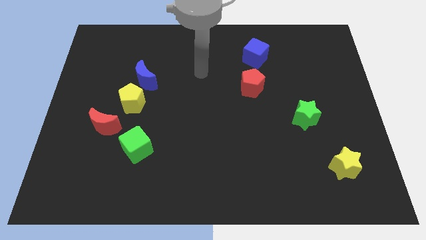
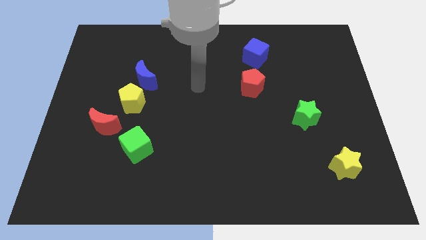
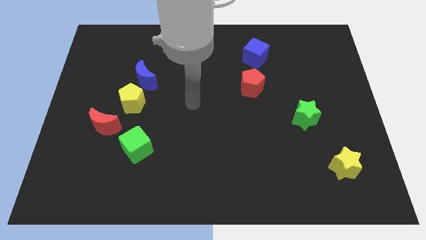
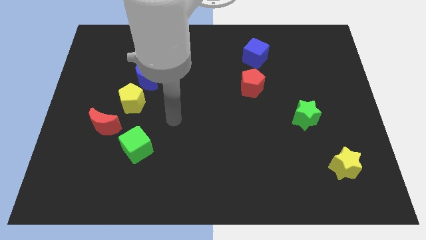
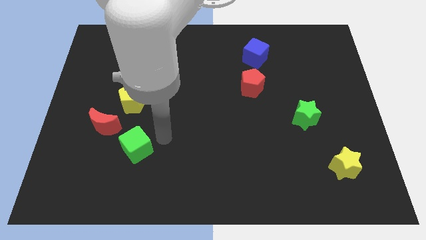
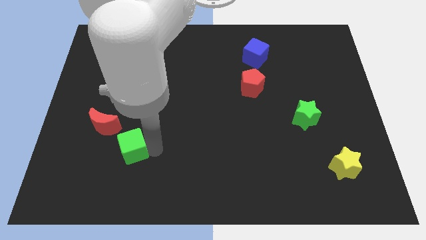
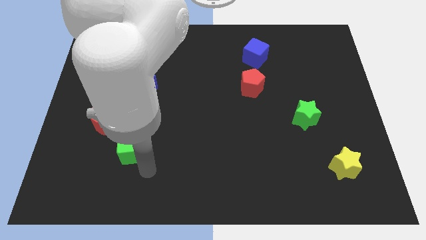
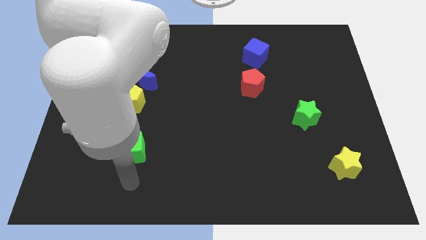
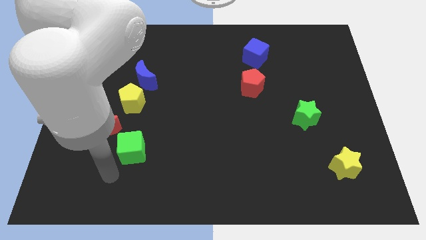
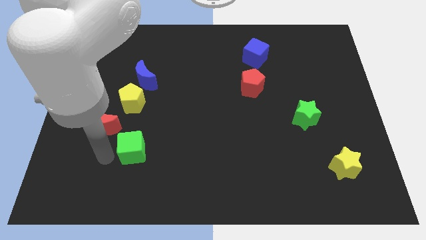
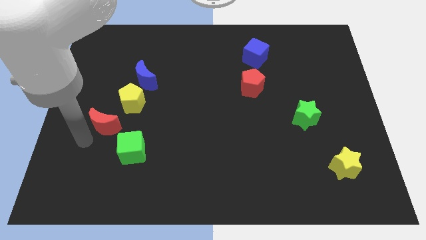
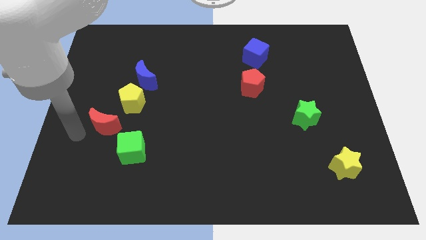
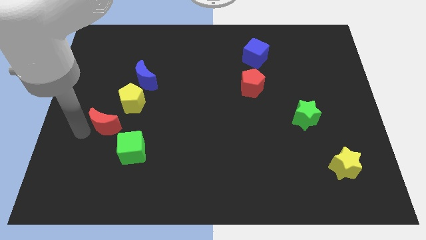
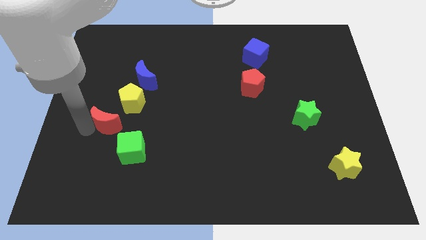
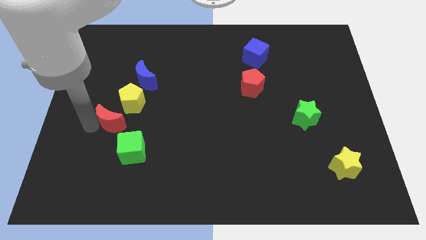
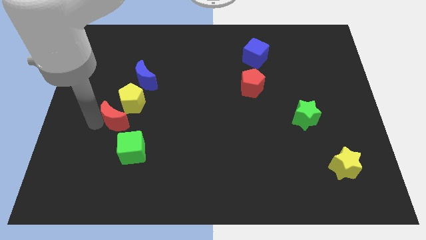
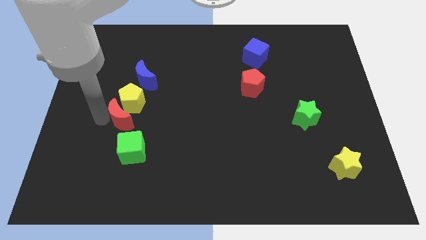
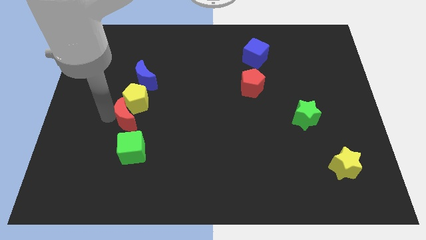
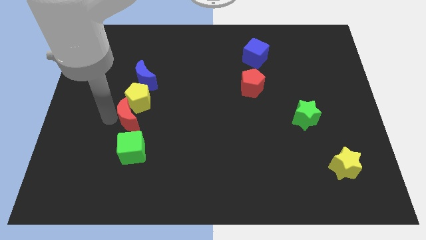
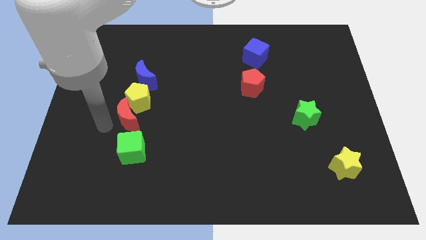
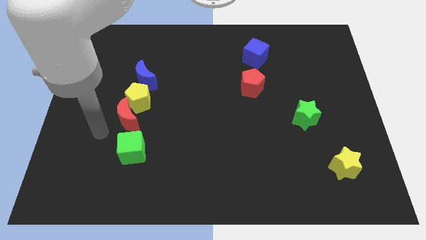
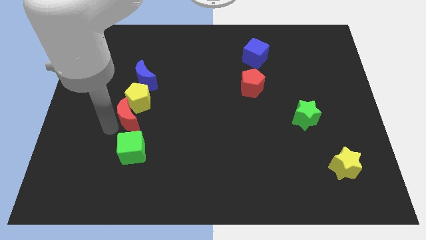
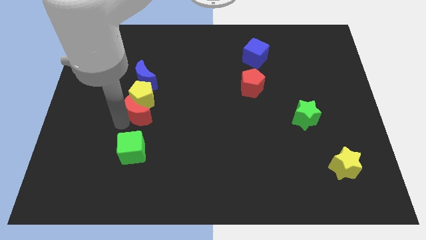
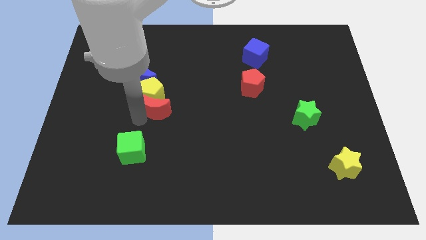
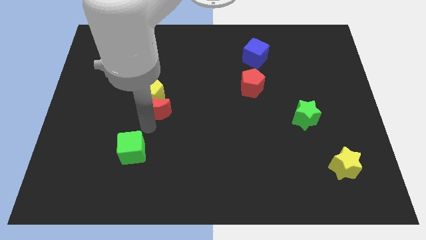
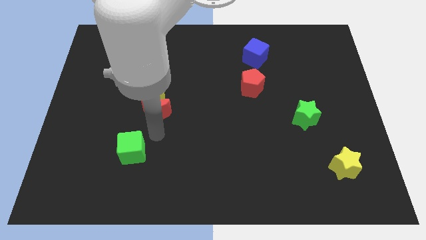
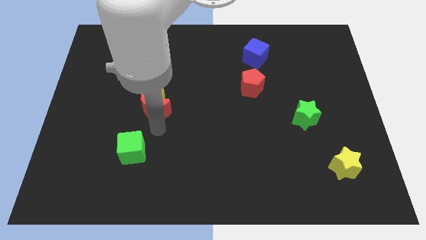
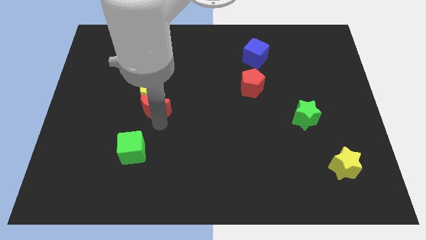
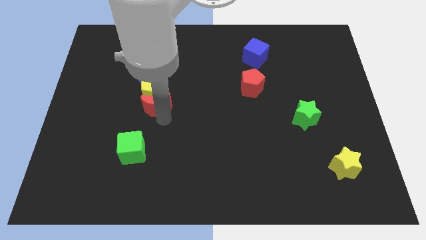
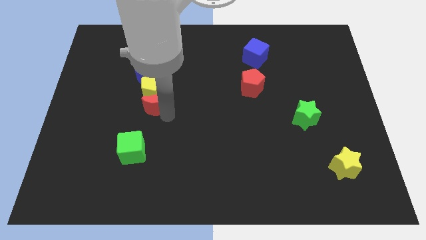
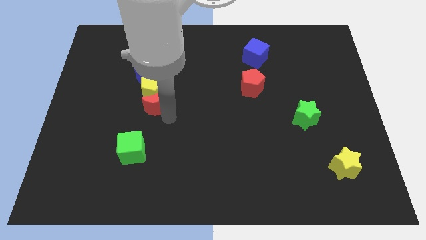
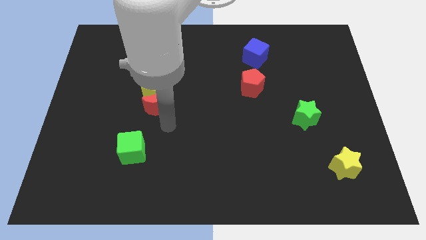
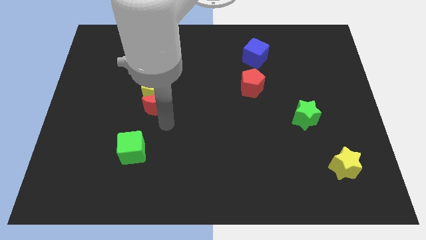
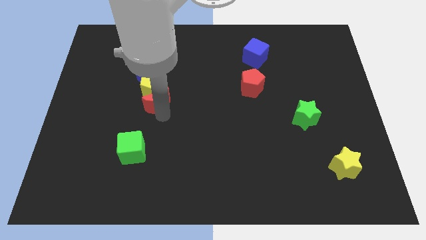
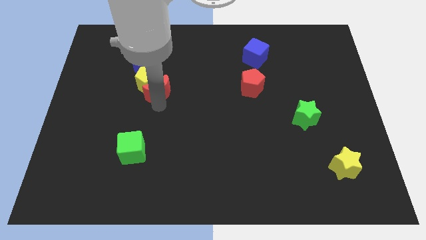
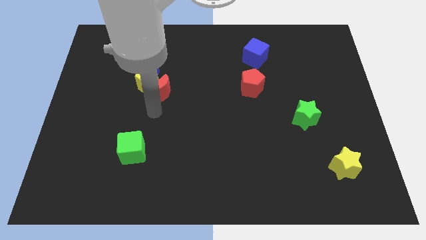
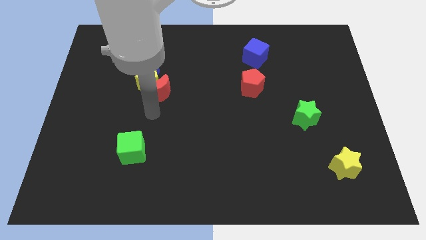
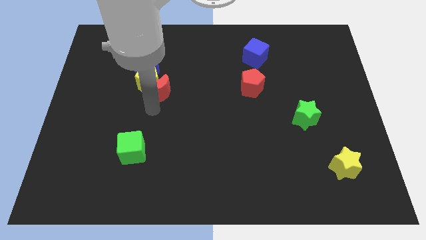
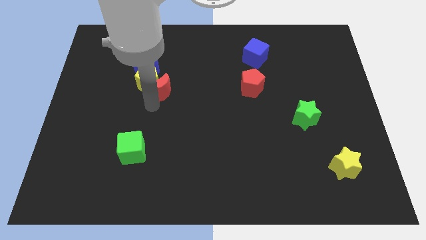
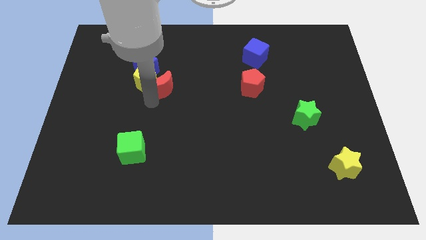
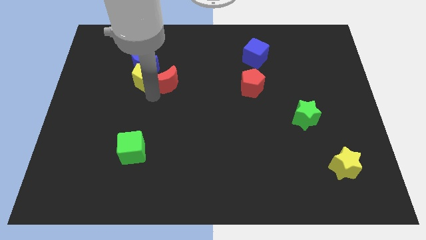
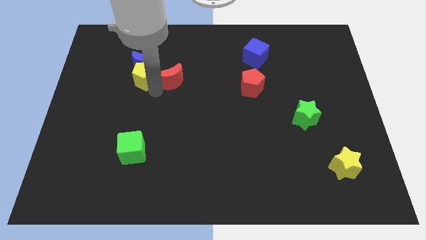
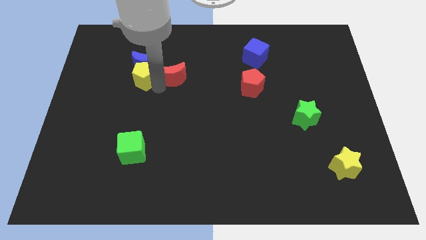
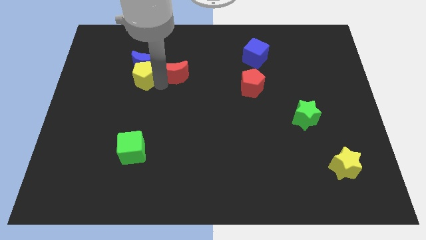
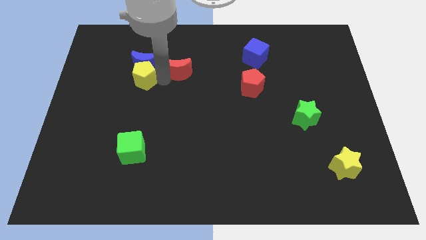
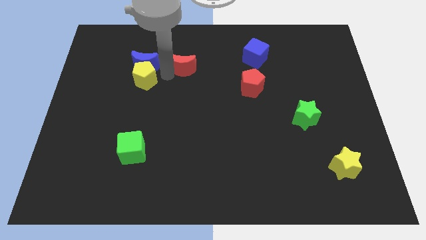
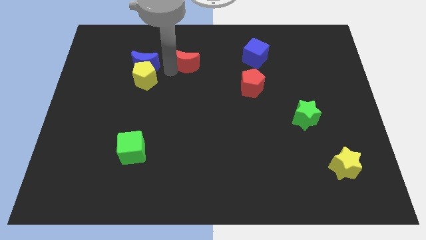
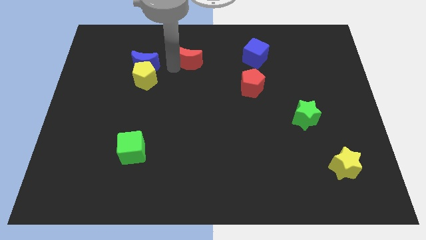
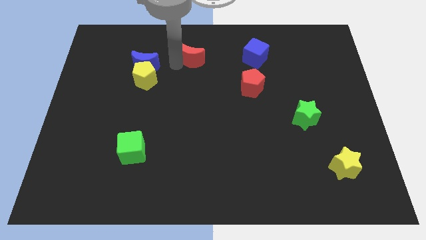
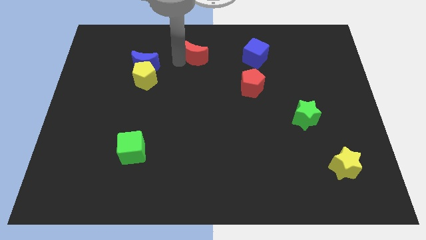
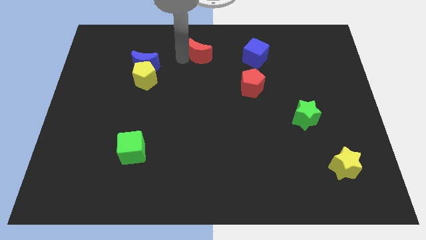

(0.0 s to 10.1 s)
move the red moon to the towards your base

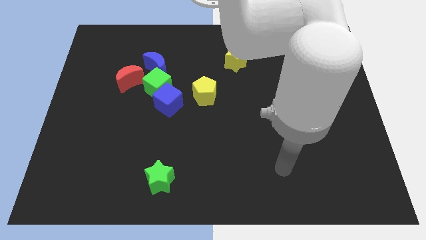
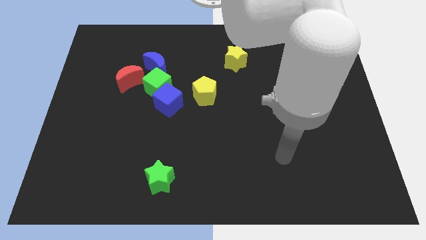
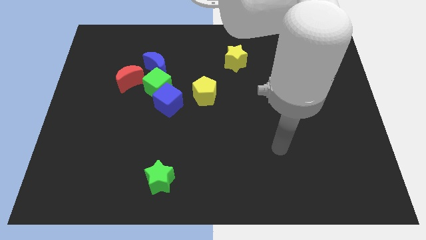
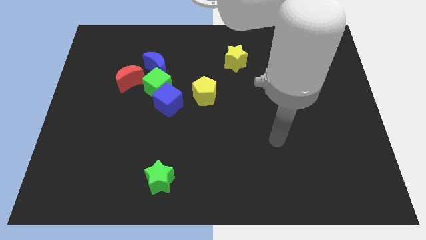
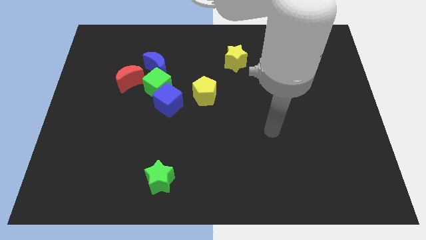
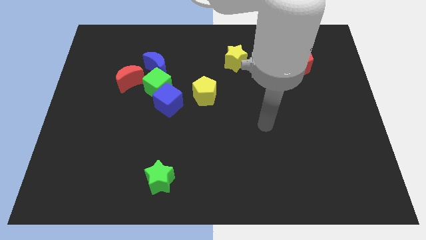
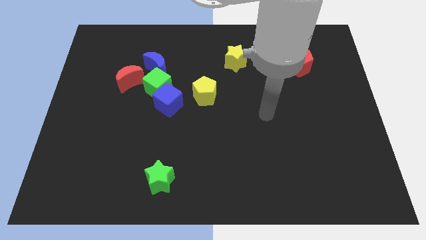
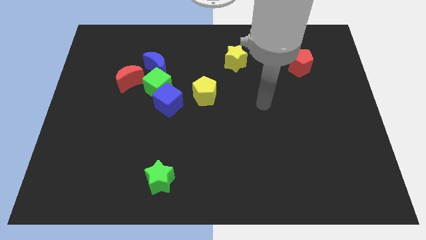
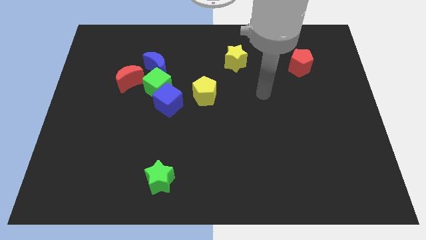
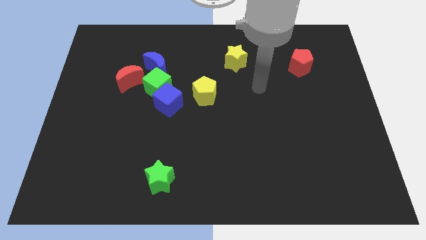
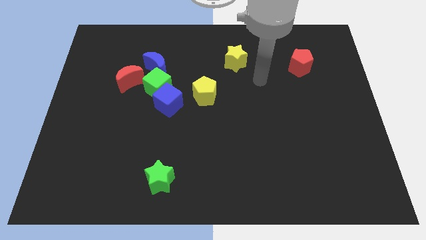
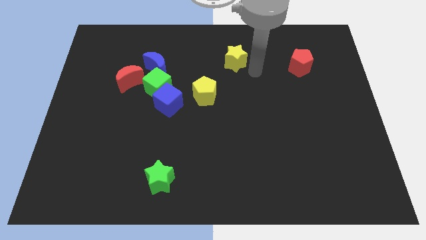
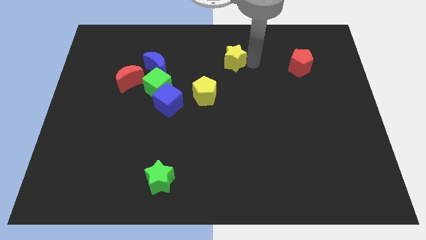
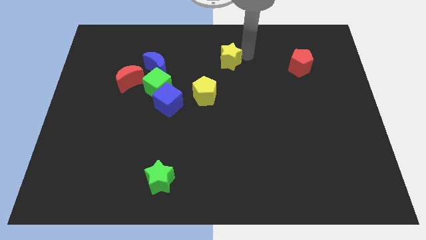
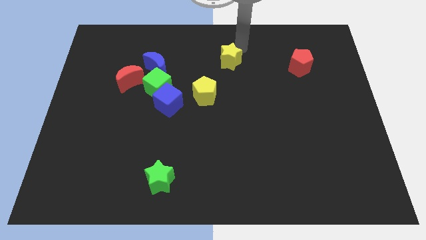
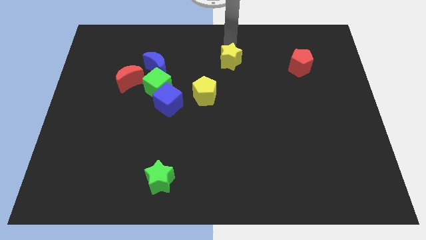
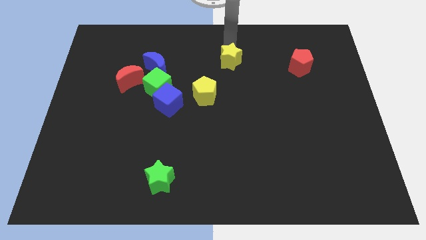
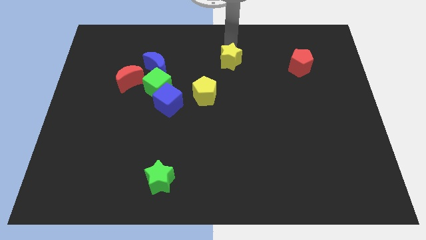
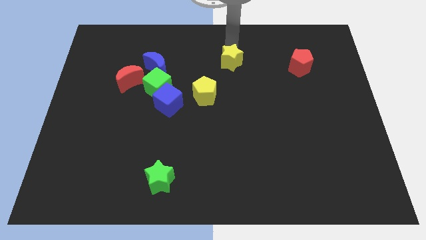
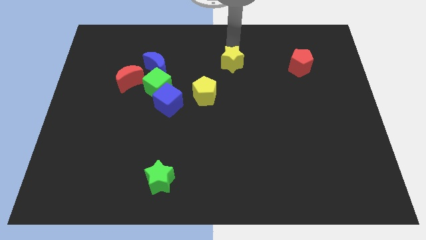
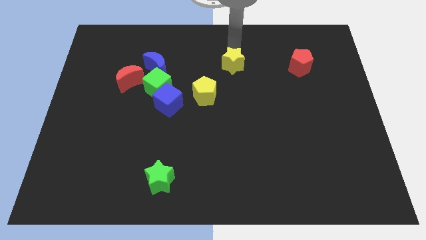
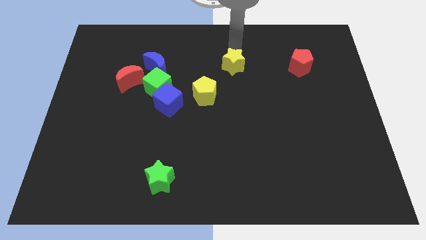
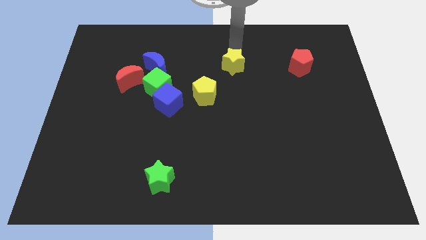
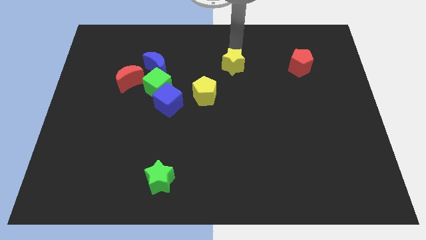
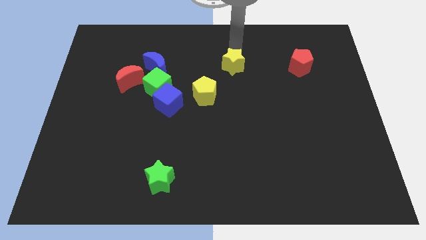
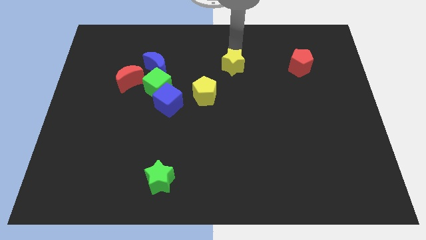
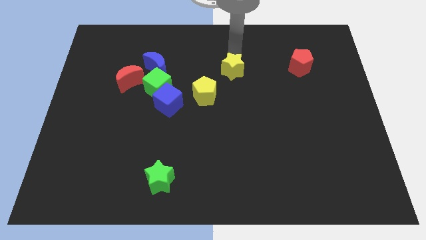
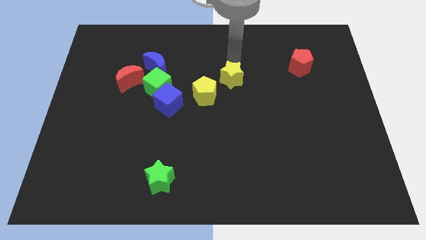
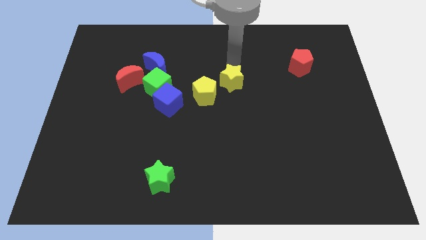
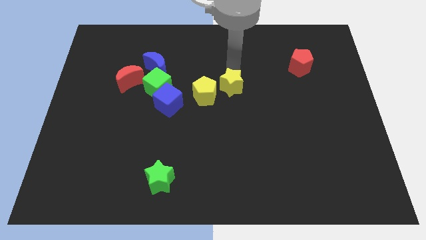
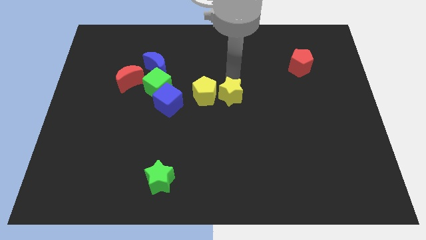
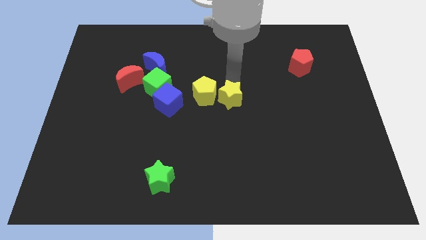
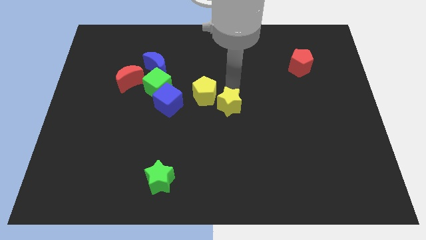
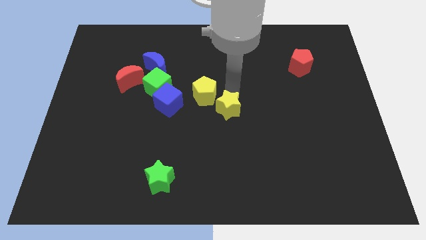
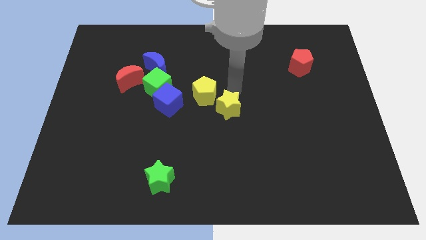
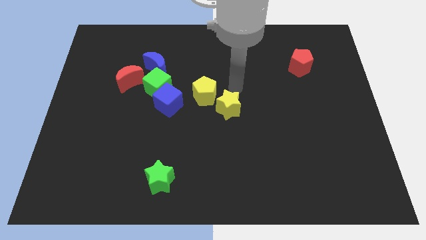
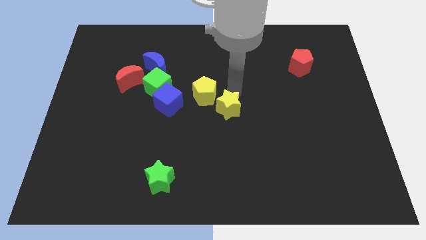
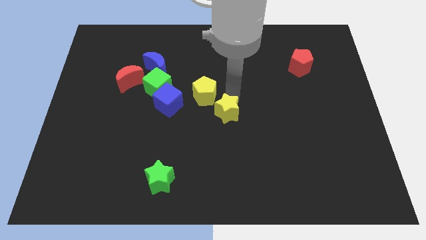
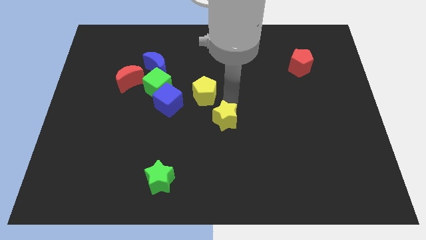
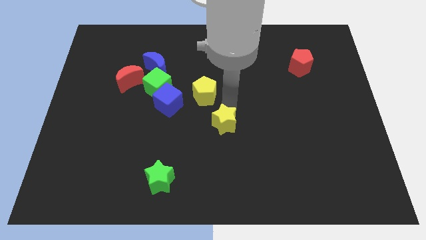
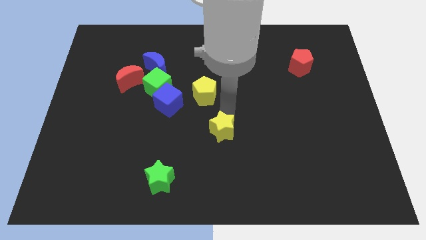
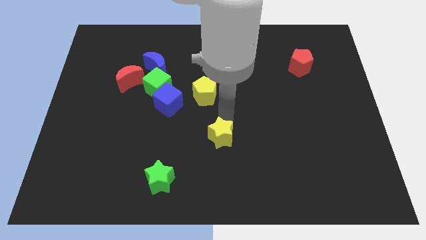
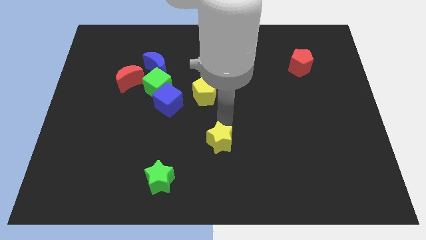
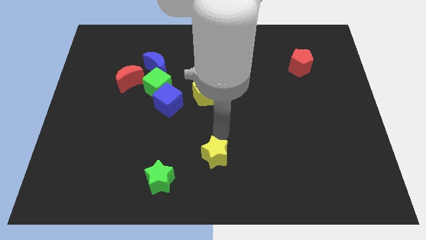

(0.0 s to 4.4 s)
slide the yellow star to the bottom side
